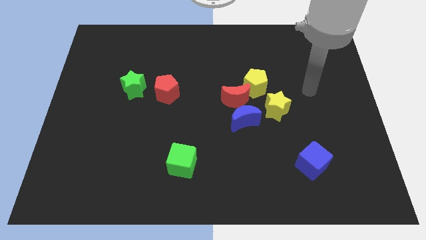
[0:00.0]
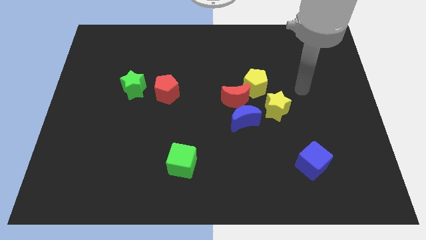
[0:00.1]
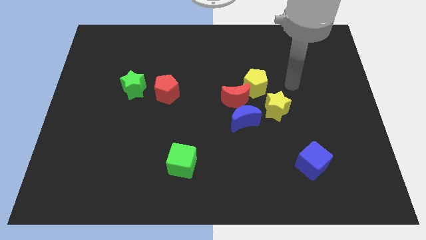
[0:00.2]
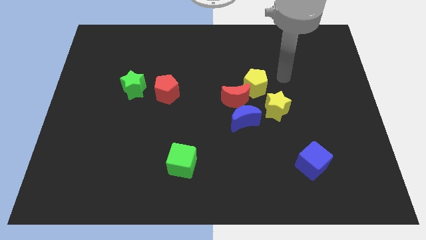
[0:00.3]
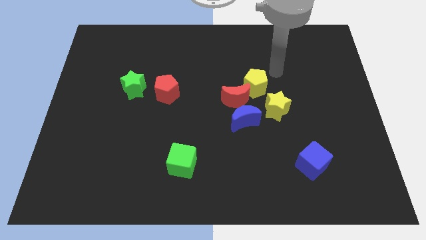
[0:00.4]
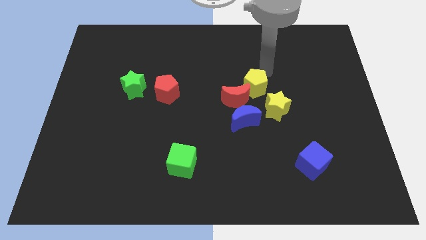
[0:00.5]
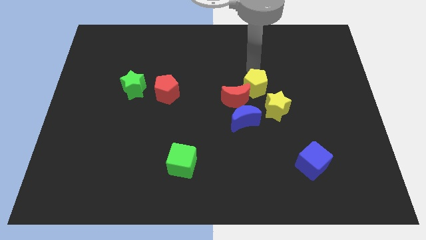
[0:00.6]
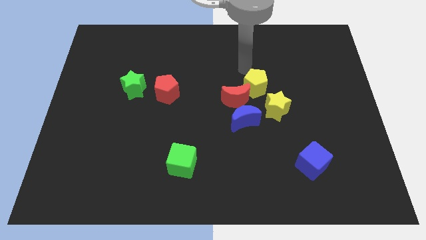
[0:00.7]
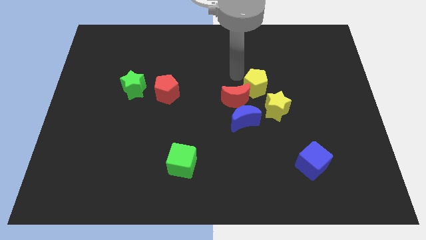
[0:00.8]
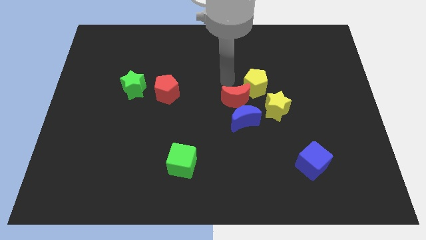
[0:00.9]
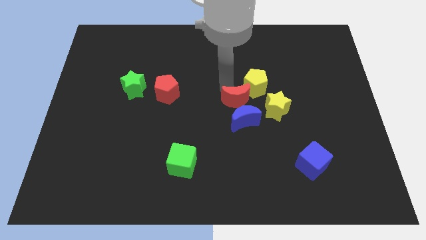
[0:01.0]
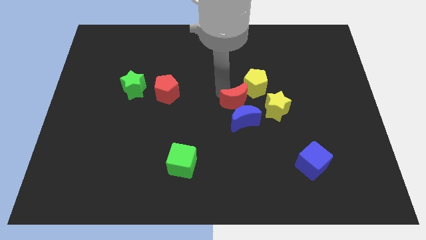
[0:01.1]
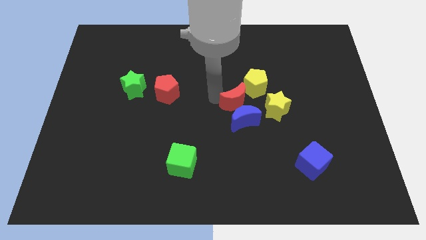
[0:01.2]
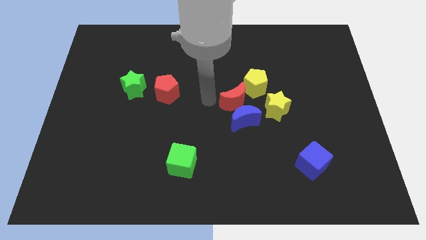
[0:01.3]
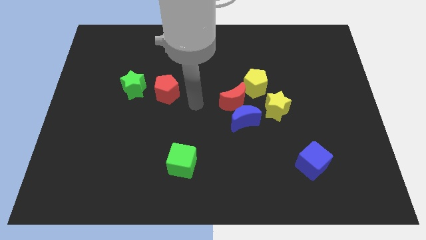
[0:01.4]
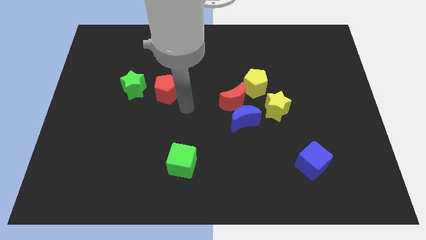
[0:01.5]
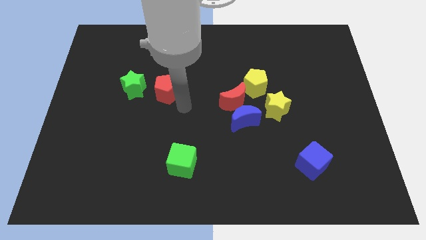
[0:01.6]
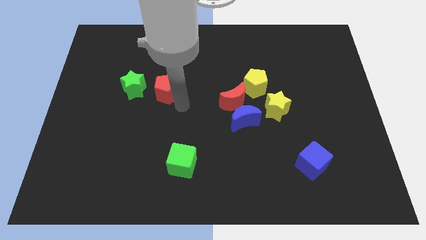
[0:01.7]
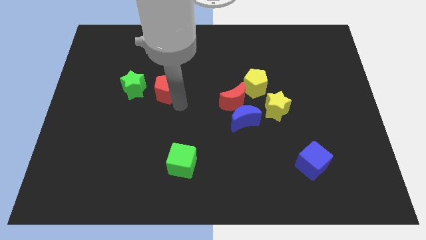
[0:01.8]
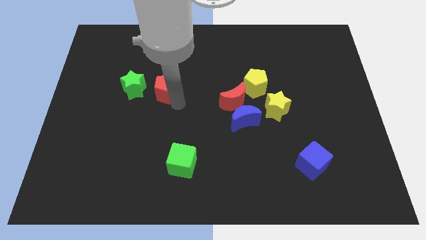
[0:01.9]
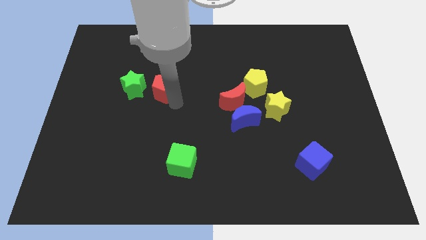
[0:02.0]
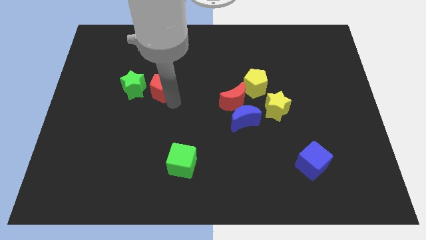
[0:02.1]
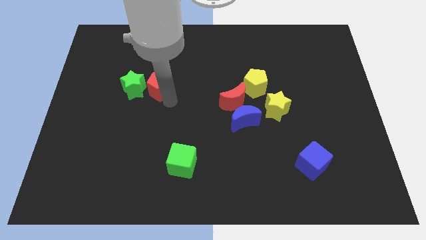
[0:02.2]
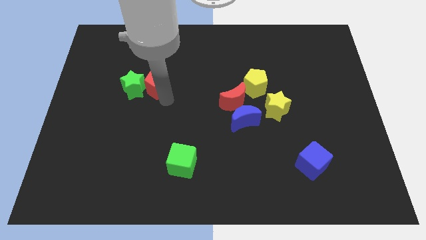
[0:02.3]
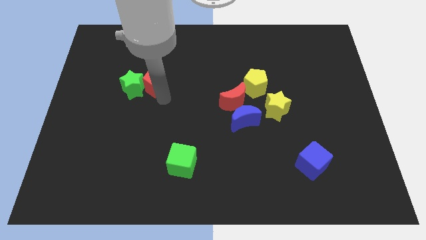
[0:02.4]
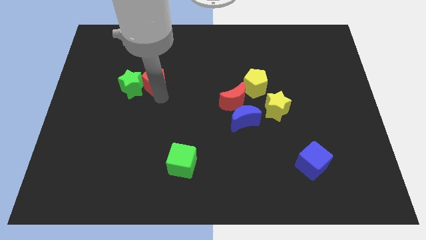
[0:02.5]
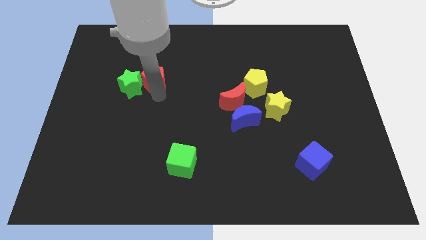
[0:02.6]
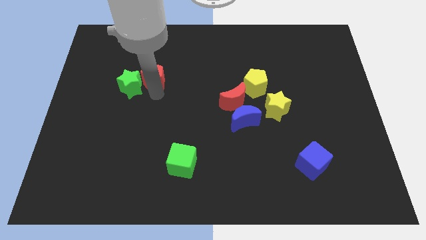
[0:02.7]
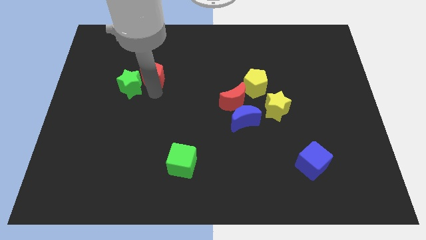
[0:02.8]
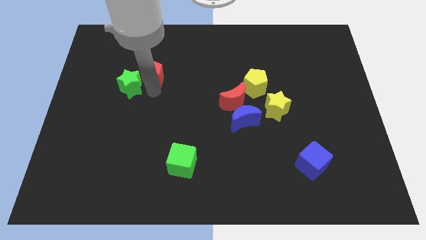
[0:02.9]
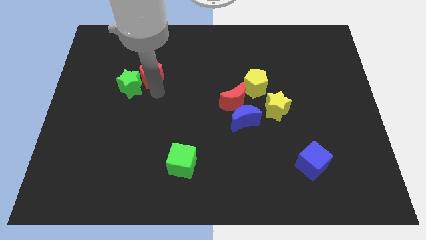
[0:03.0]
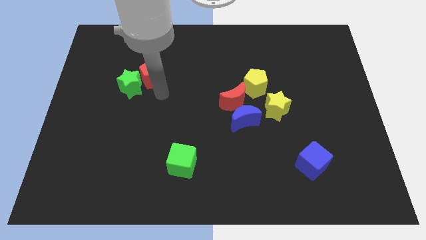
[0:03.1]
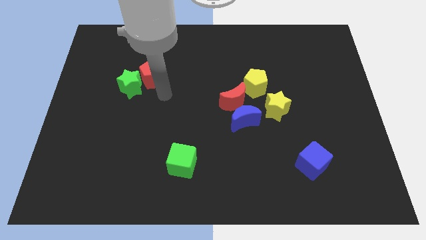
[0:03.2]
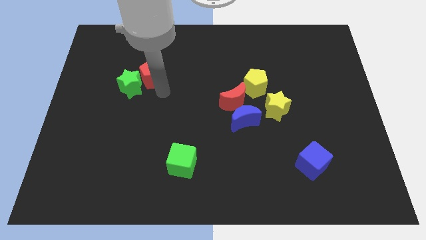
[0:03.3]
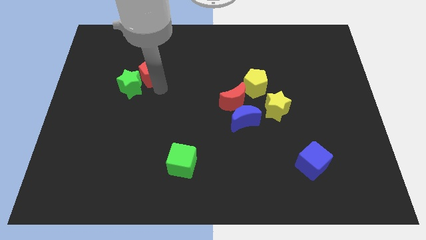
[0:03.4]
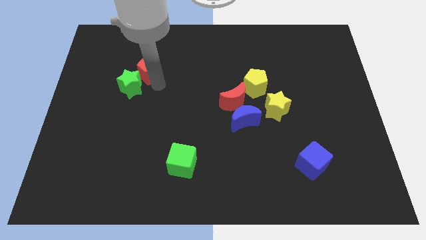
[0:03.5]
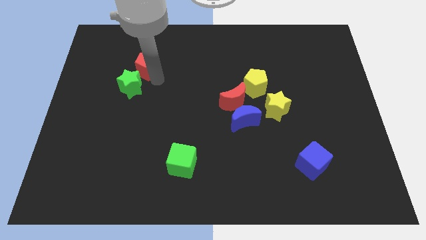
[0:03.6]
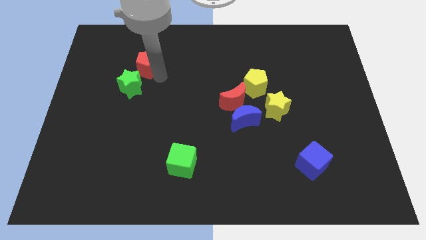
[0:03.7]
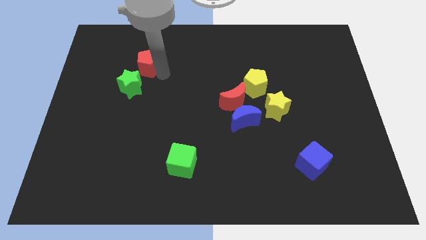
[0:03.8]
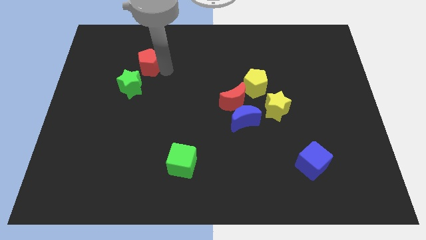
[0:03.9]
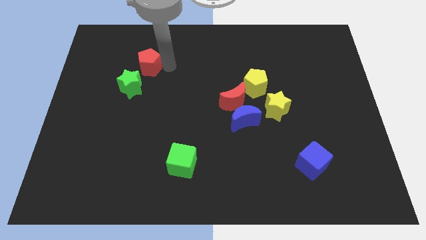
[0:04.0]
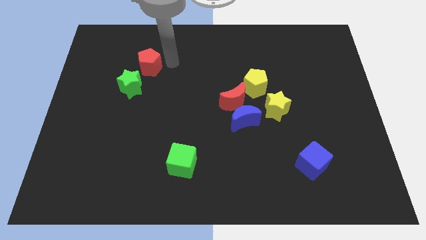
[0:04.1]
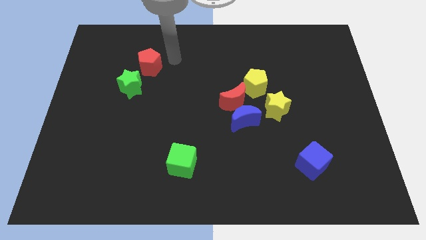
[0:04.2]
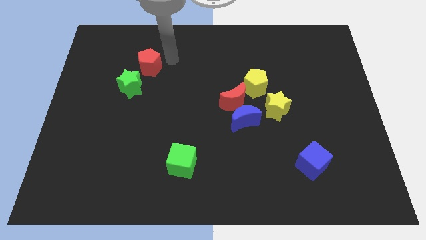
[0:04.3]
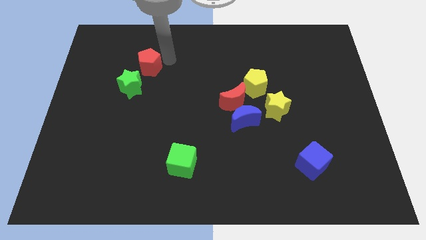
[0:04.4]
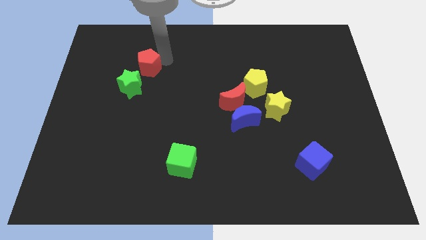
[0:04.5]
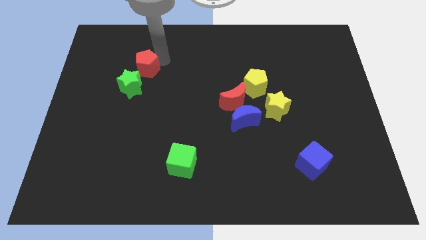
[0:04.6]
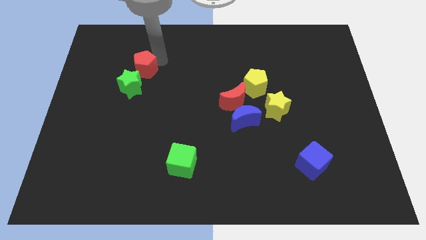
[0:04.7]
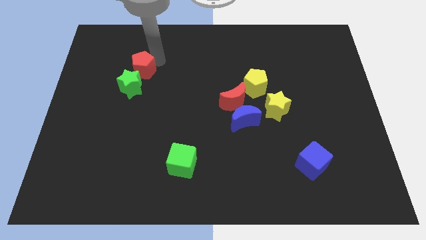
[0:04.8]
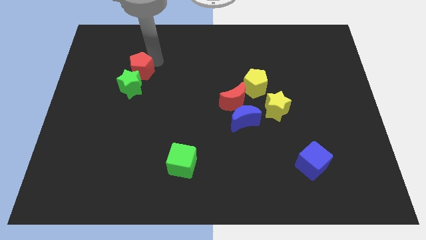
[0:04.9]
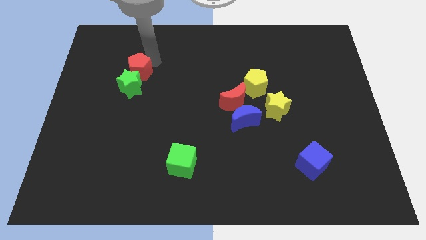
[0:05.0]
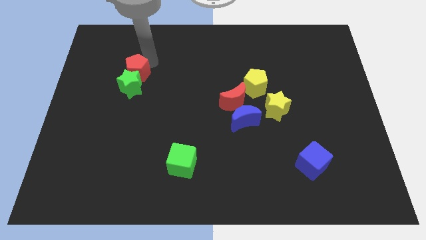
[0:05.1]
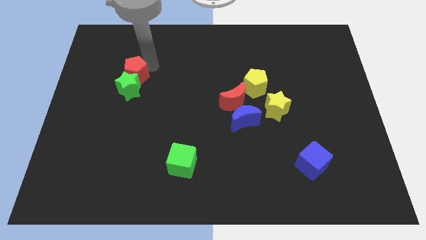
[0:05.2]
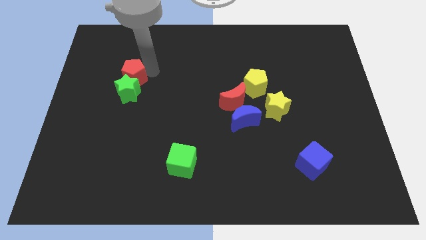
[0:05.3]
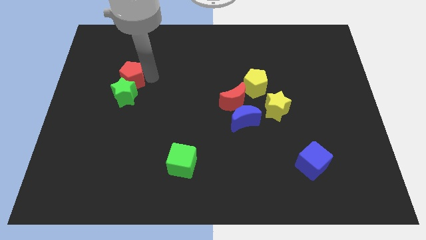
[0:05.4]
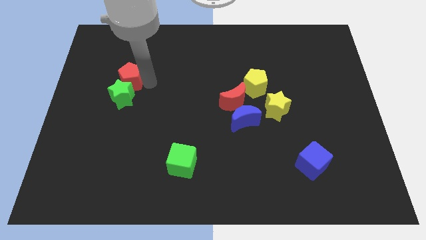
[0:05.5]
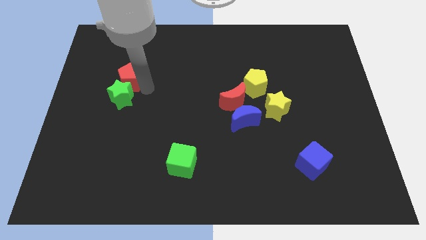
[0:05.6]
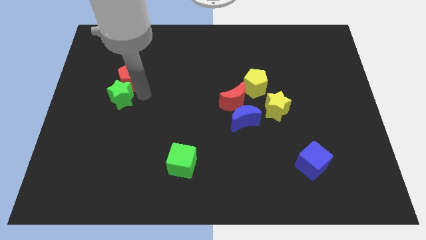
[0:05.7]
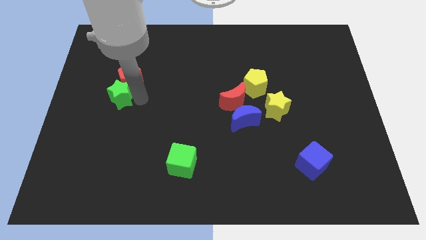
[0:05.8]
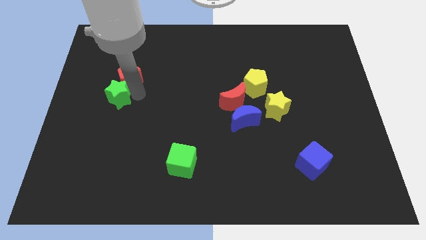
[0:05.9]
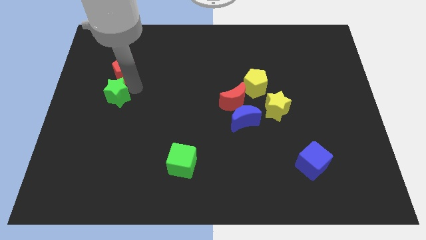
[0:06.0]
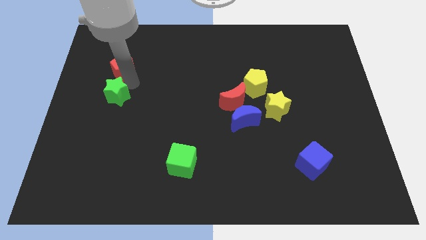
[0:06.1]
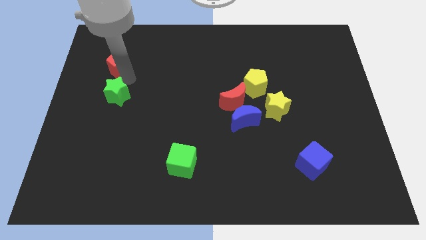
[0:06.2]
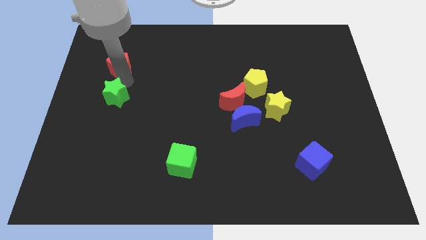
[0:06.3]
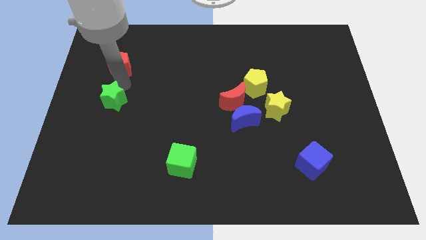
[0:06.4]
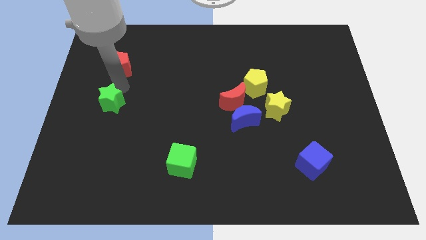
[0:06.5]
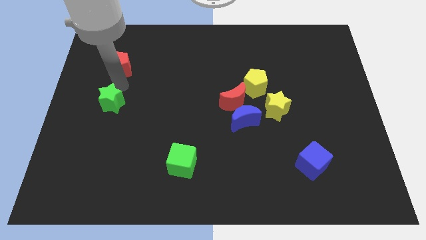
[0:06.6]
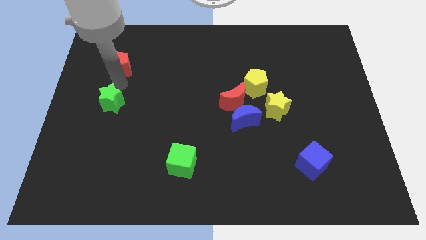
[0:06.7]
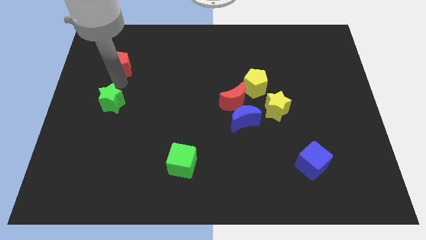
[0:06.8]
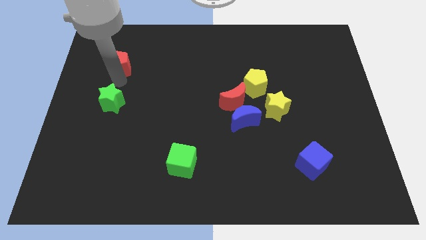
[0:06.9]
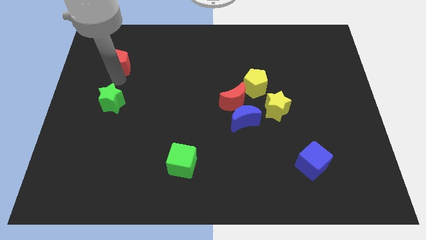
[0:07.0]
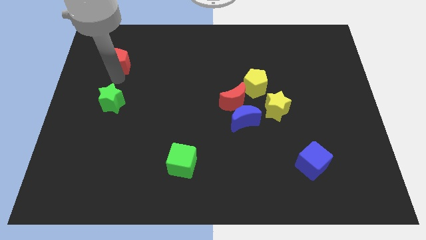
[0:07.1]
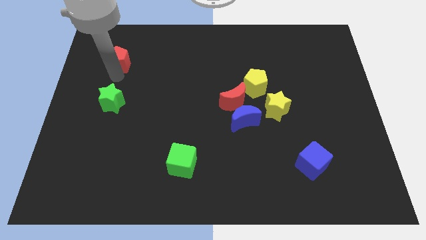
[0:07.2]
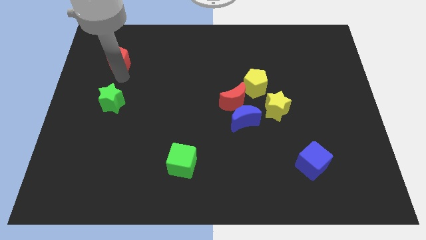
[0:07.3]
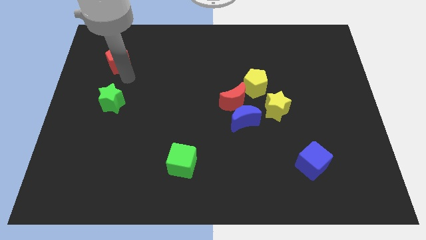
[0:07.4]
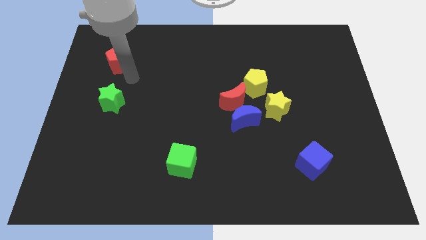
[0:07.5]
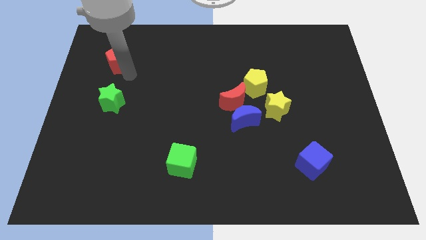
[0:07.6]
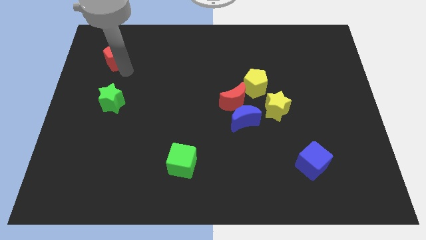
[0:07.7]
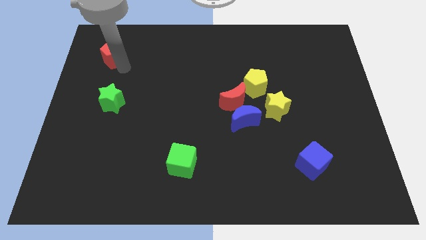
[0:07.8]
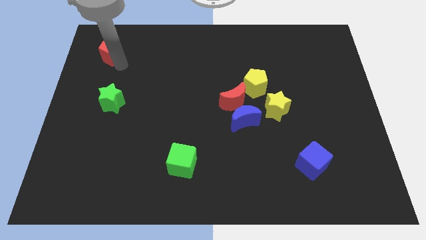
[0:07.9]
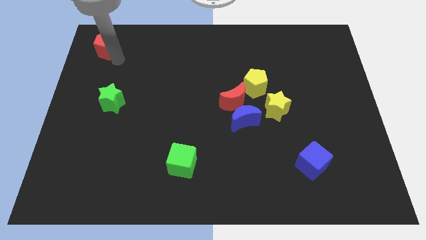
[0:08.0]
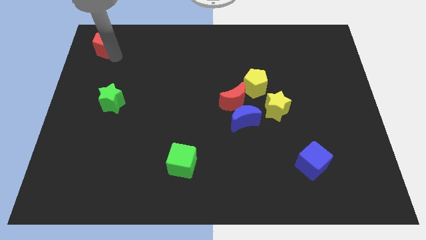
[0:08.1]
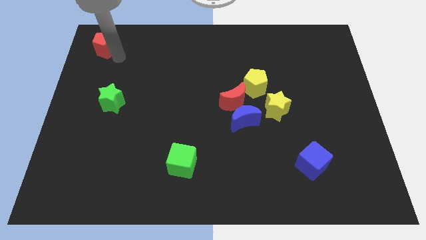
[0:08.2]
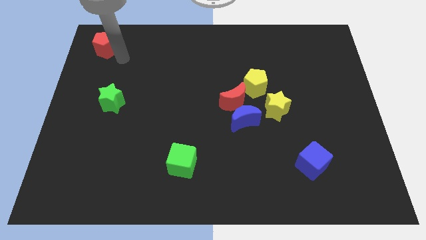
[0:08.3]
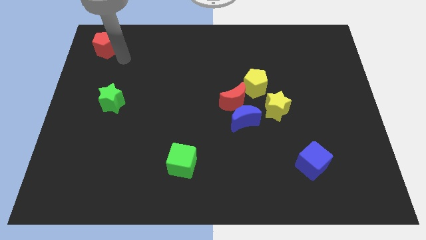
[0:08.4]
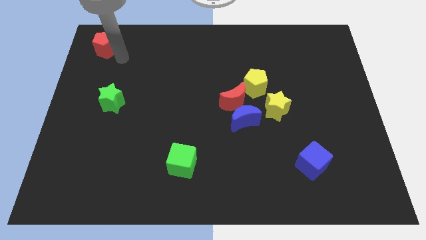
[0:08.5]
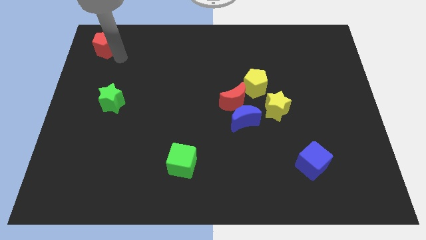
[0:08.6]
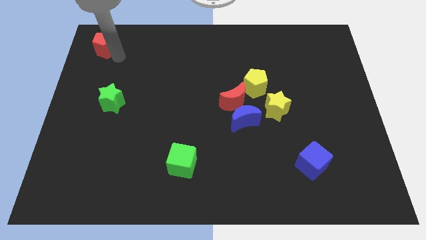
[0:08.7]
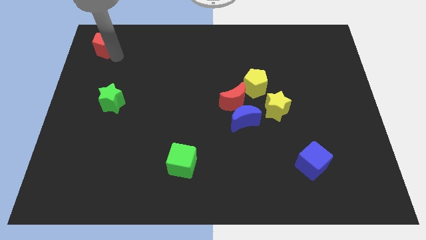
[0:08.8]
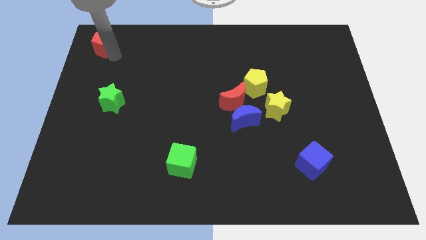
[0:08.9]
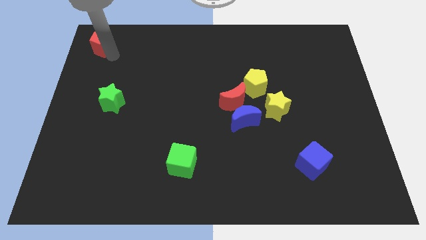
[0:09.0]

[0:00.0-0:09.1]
put the red pentagon to the top left
